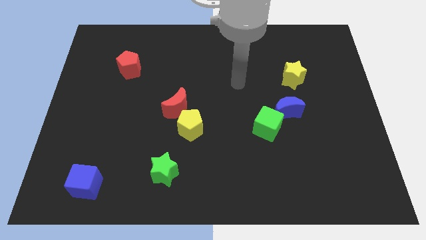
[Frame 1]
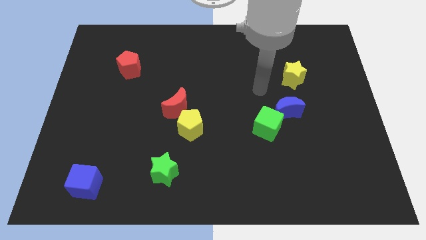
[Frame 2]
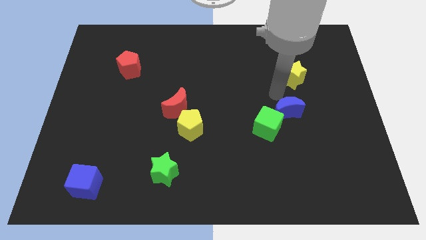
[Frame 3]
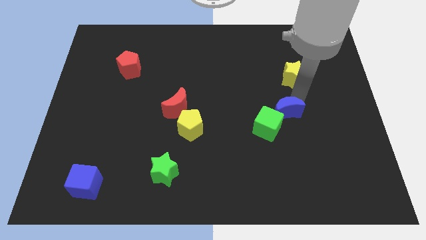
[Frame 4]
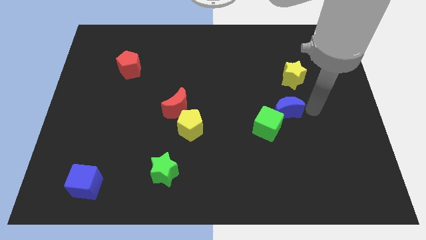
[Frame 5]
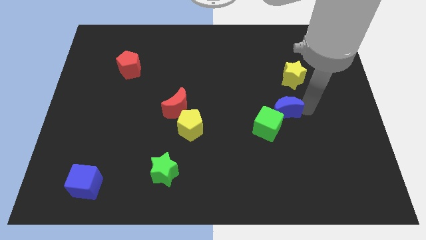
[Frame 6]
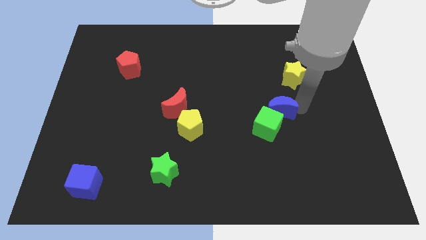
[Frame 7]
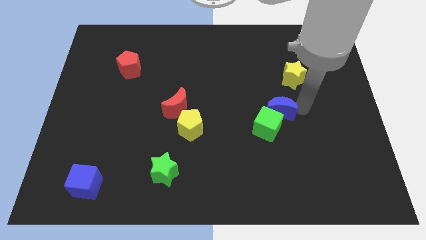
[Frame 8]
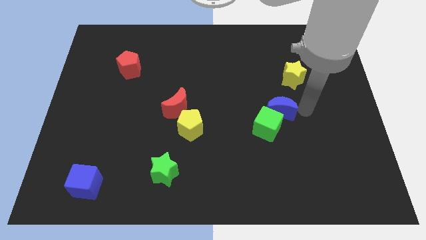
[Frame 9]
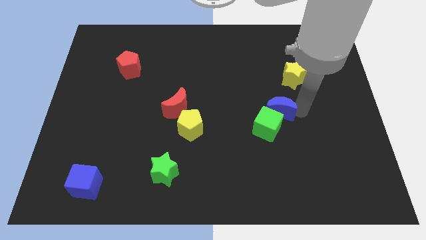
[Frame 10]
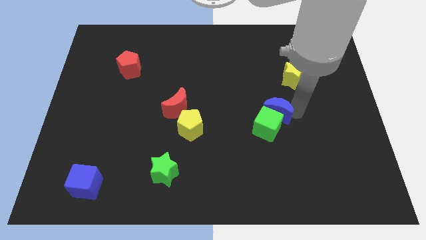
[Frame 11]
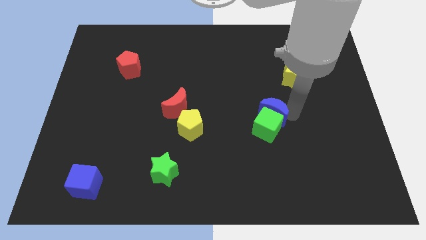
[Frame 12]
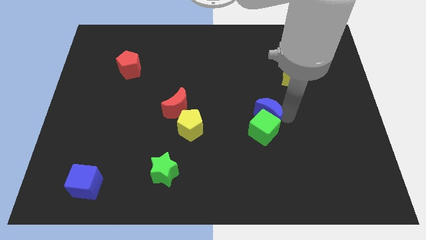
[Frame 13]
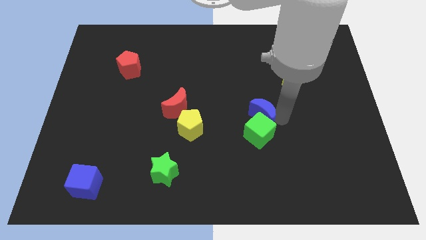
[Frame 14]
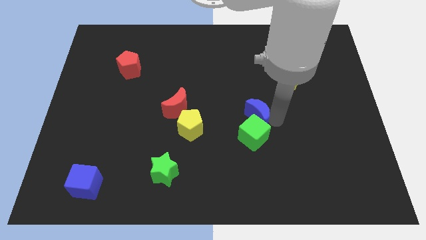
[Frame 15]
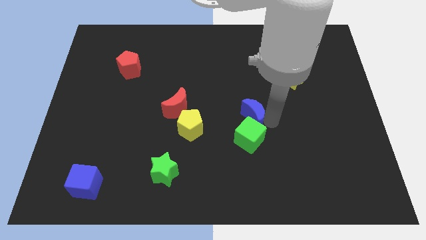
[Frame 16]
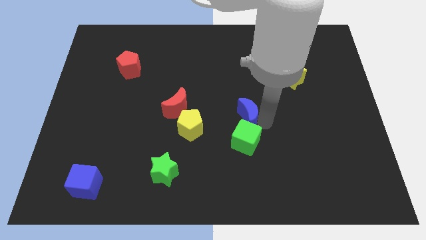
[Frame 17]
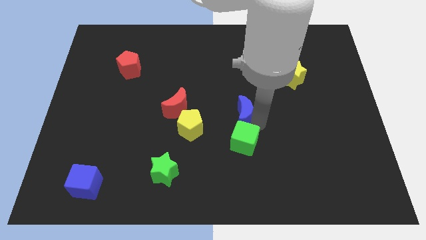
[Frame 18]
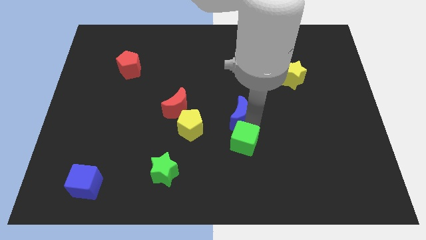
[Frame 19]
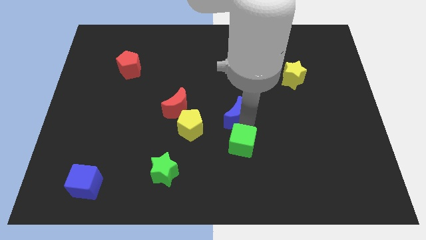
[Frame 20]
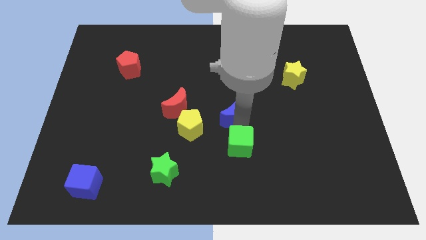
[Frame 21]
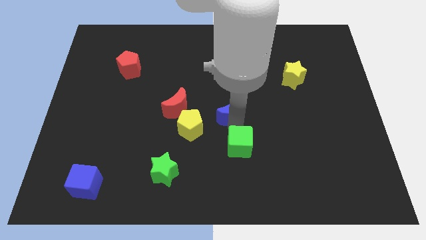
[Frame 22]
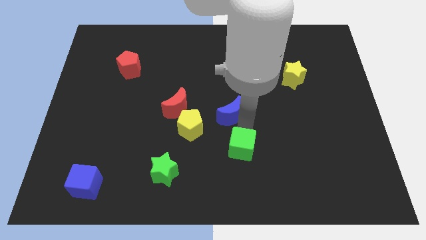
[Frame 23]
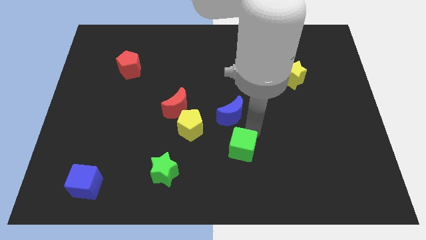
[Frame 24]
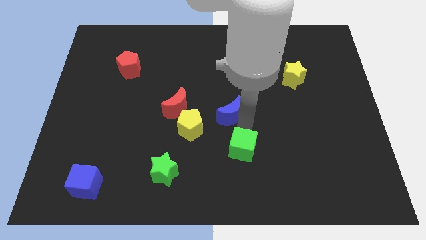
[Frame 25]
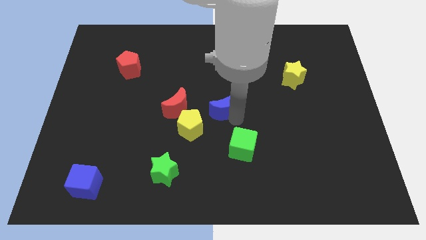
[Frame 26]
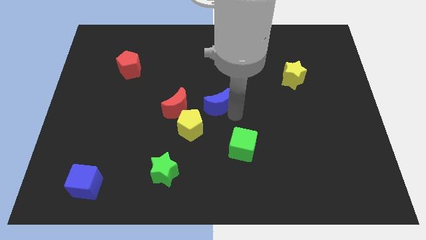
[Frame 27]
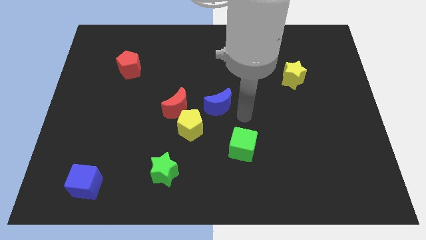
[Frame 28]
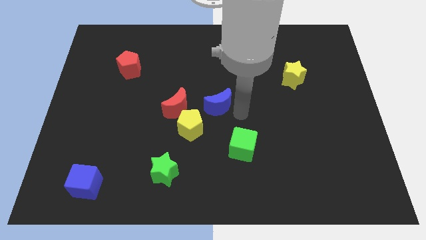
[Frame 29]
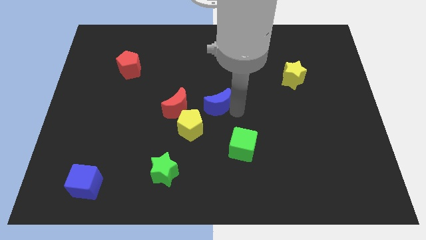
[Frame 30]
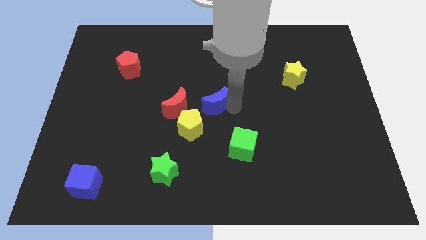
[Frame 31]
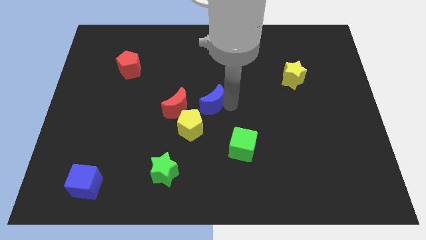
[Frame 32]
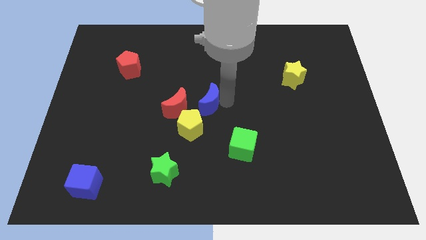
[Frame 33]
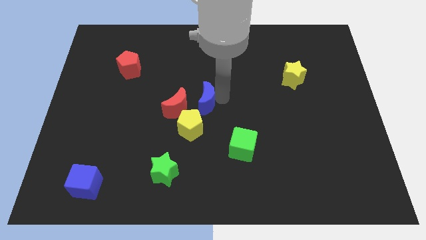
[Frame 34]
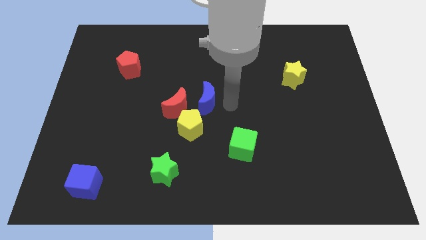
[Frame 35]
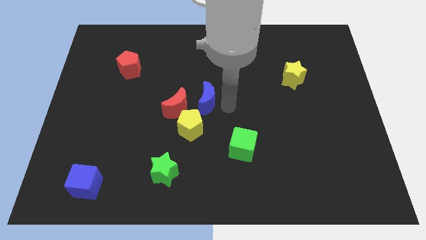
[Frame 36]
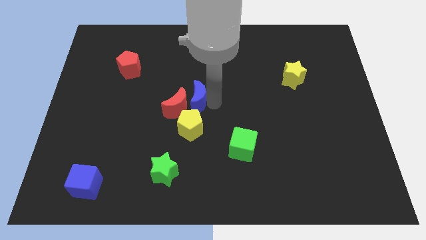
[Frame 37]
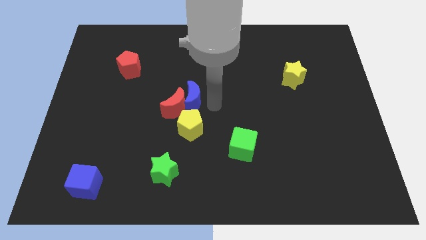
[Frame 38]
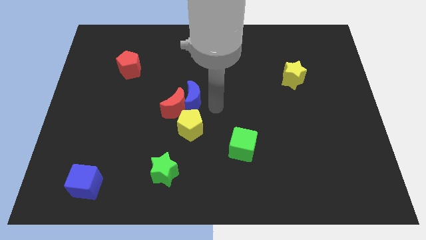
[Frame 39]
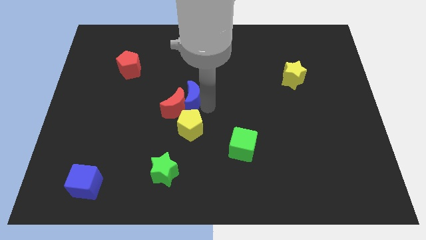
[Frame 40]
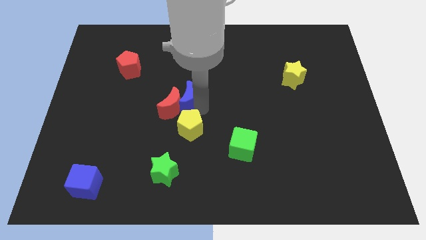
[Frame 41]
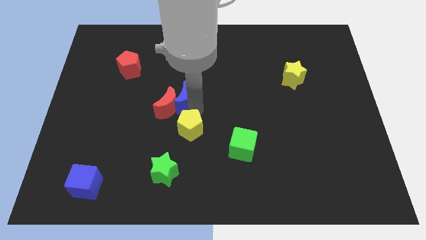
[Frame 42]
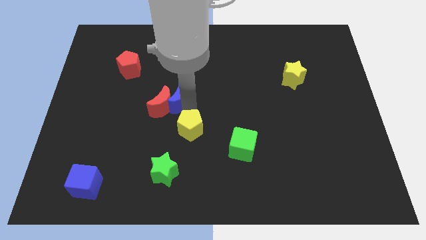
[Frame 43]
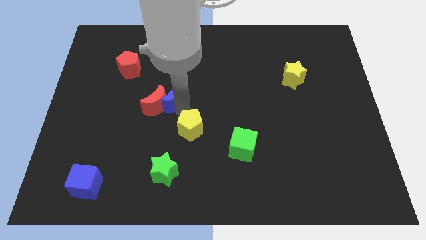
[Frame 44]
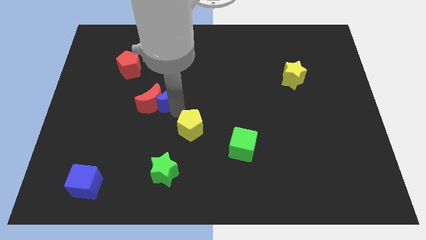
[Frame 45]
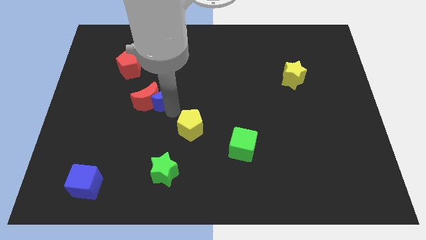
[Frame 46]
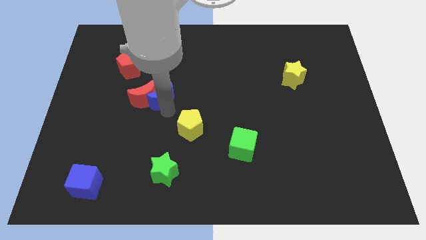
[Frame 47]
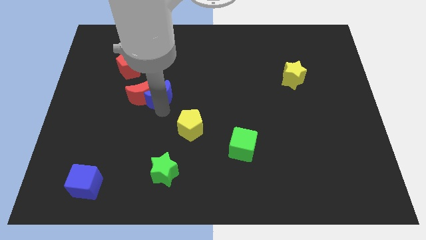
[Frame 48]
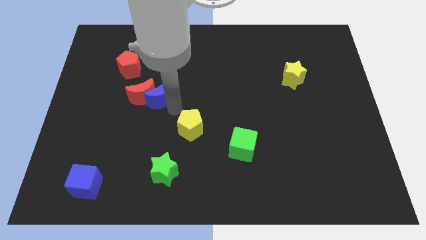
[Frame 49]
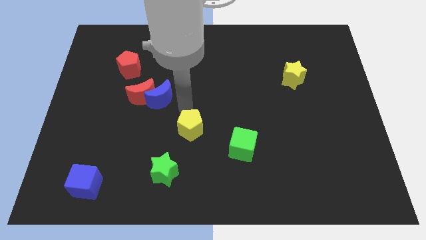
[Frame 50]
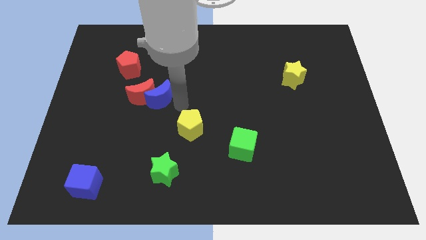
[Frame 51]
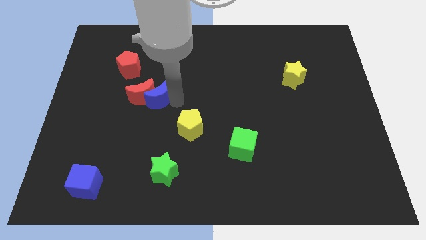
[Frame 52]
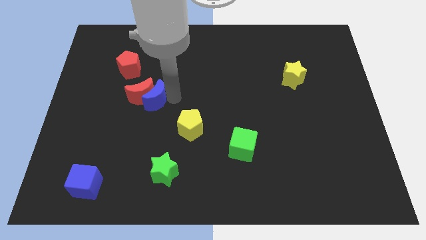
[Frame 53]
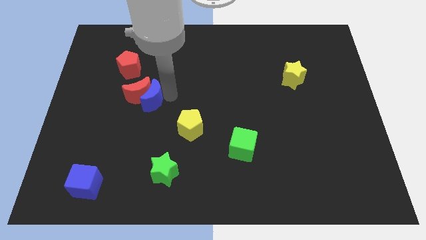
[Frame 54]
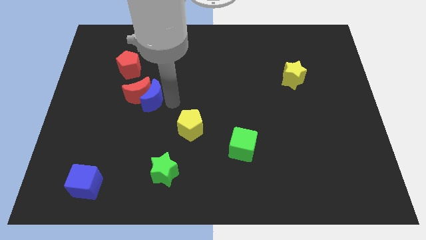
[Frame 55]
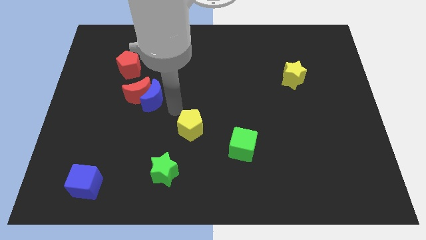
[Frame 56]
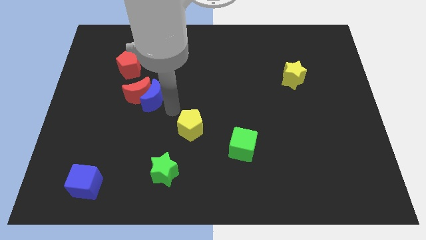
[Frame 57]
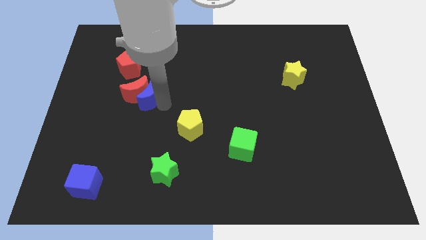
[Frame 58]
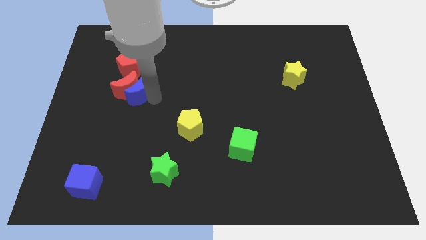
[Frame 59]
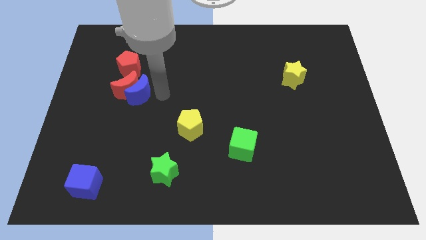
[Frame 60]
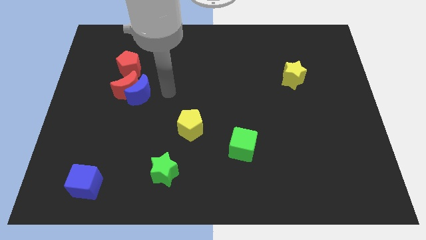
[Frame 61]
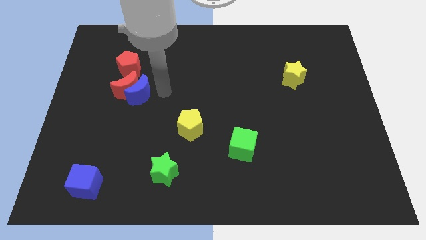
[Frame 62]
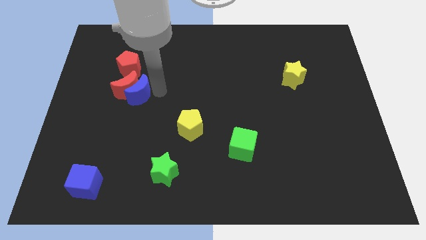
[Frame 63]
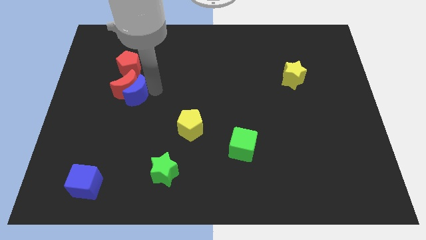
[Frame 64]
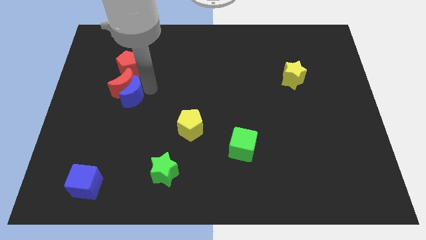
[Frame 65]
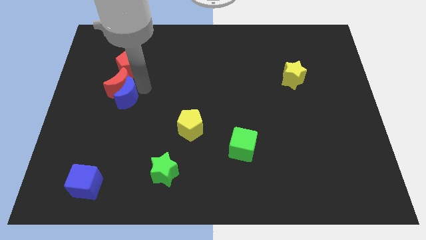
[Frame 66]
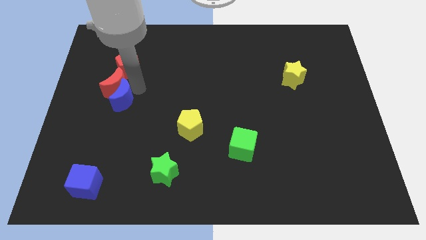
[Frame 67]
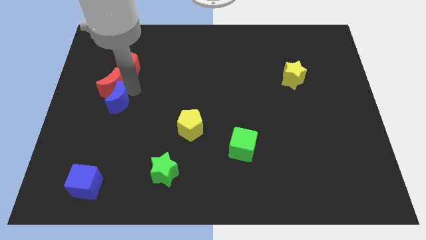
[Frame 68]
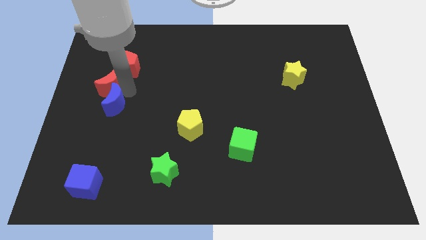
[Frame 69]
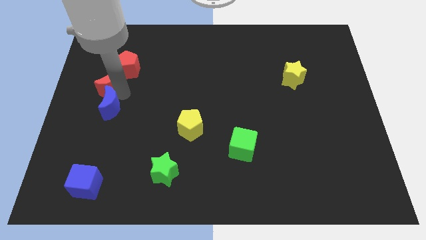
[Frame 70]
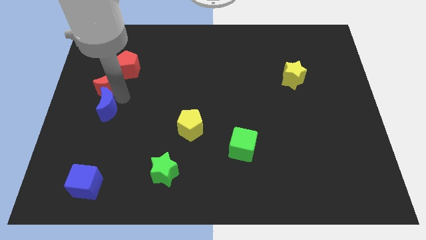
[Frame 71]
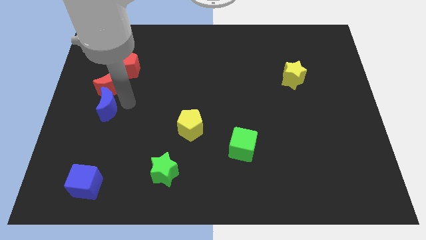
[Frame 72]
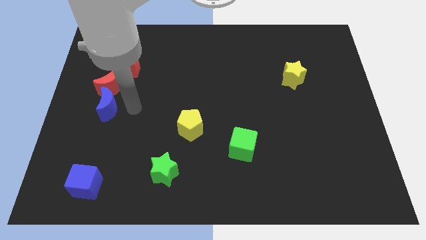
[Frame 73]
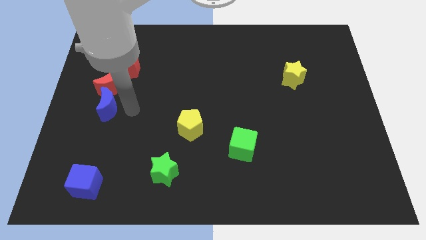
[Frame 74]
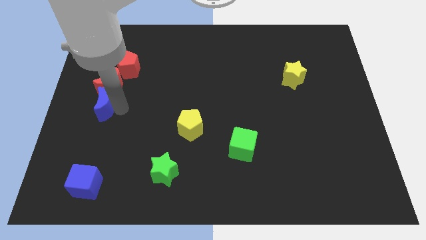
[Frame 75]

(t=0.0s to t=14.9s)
put the blue moon to the left side of the board
